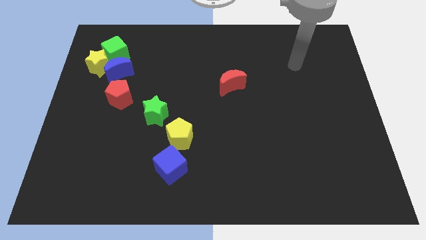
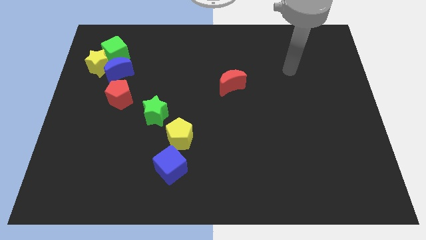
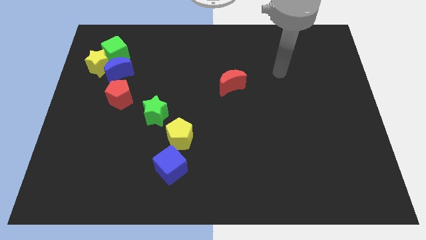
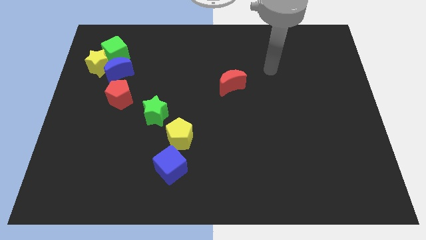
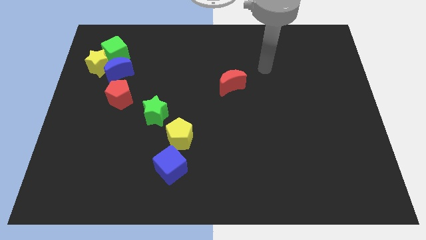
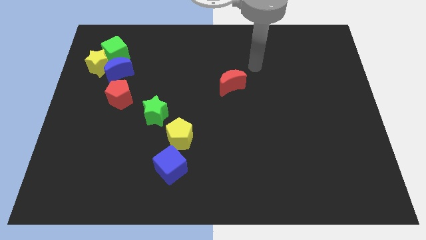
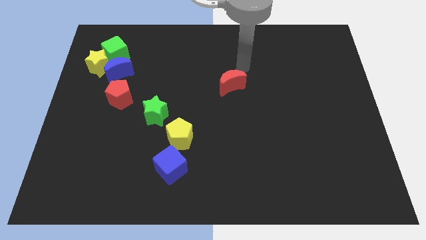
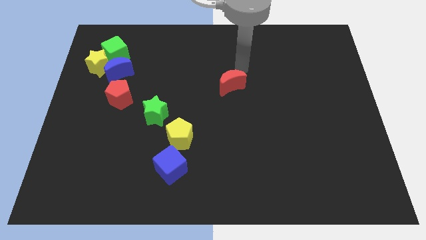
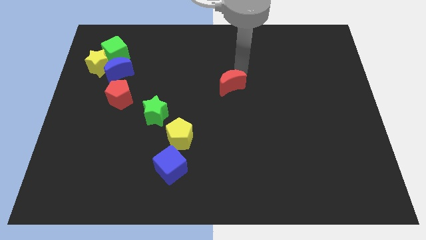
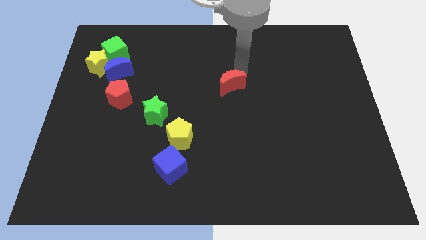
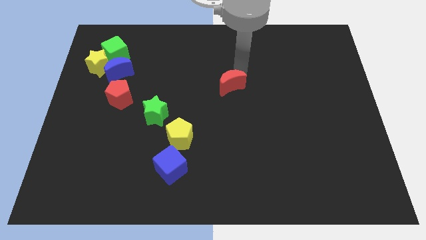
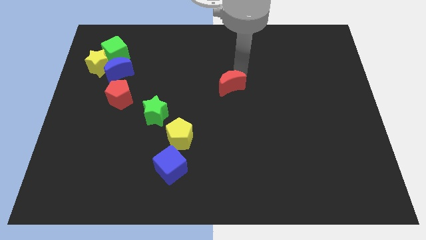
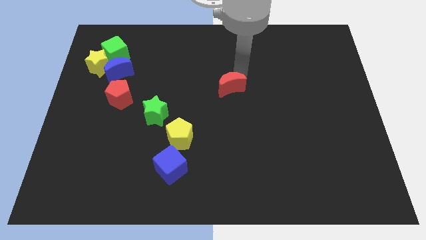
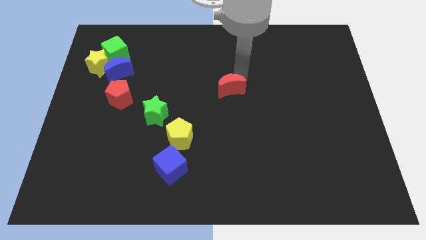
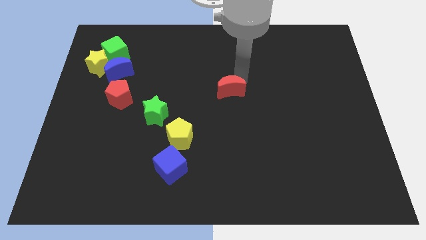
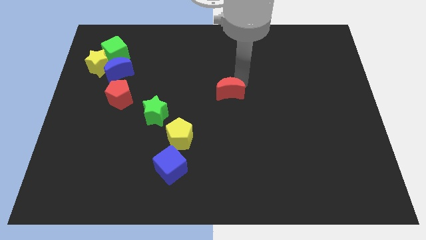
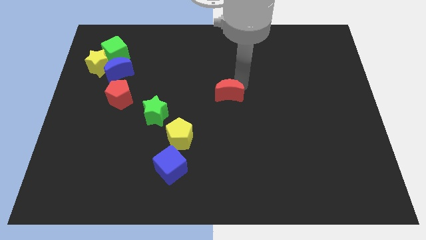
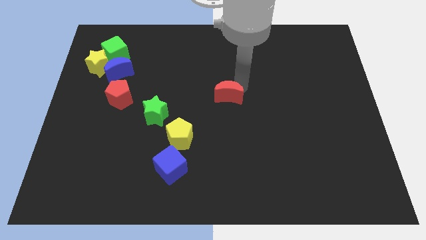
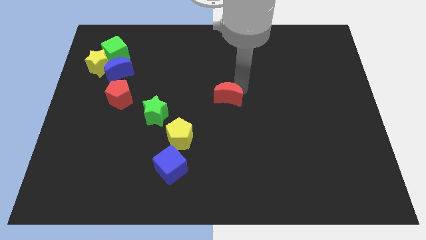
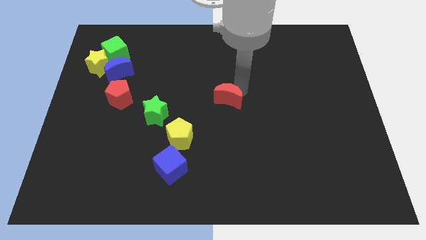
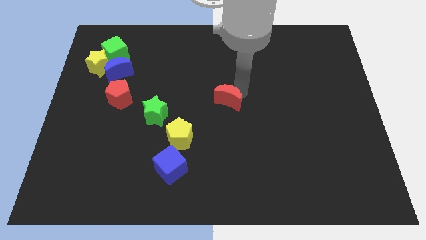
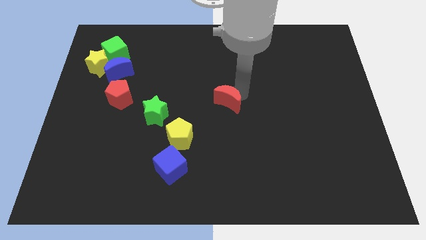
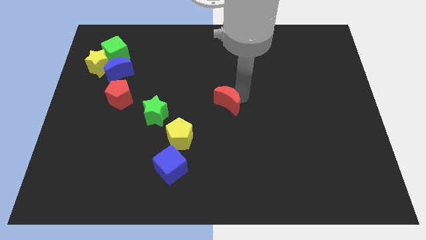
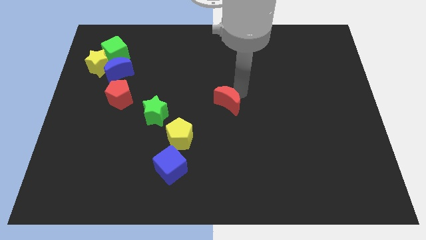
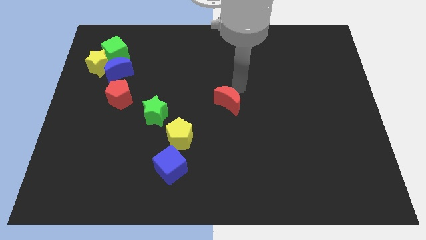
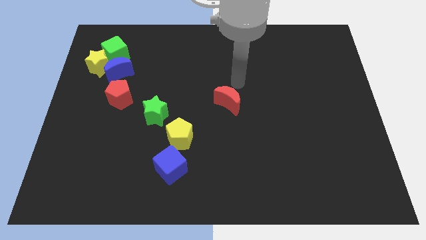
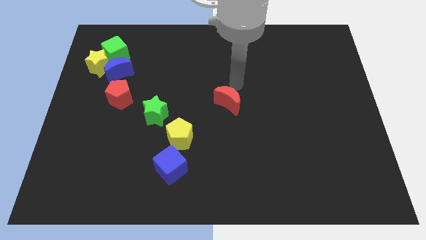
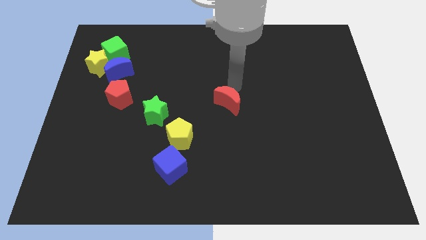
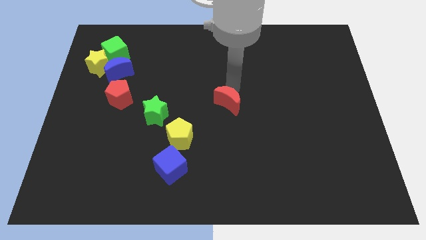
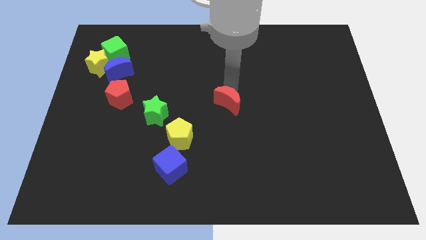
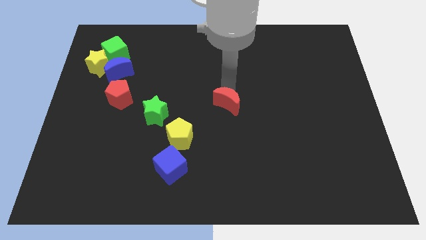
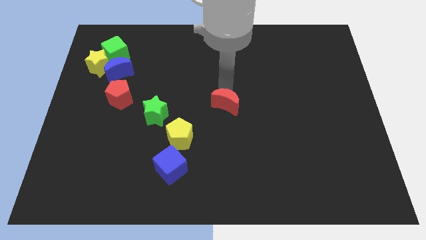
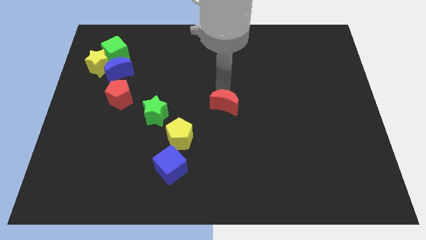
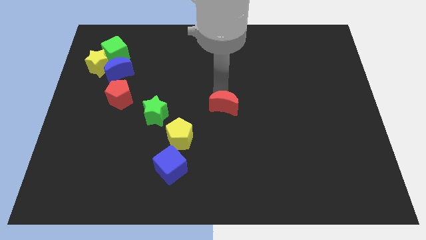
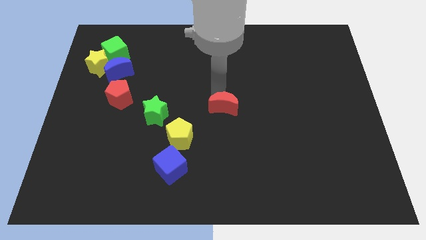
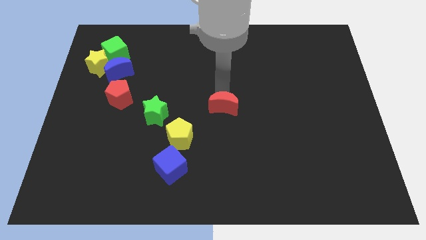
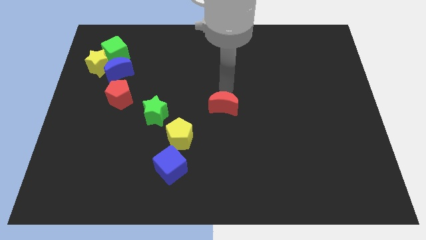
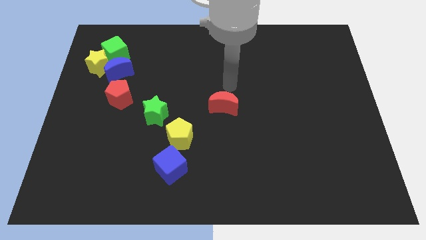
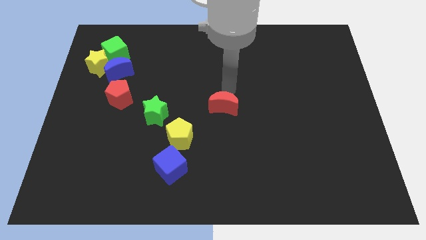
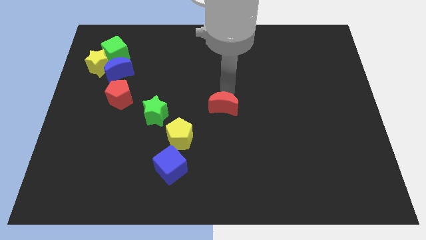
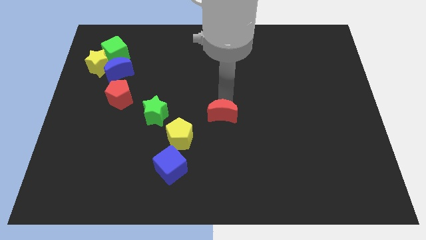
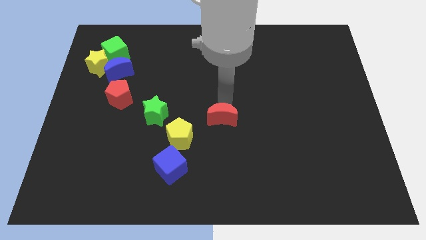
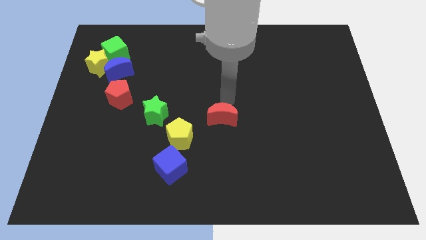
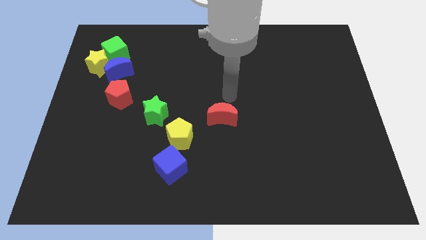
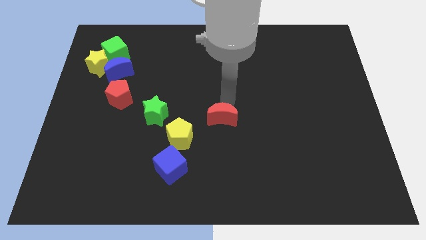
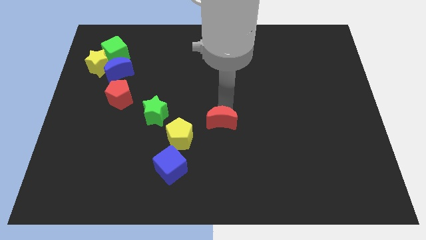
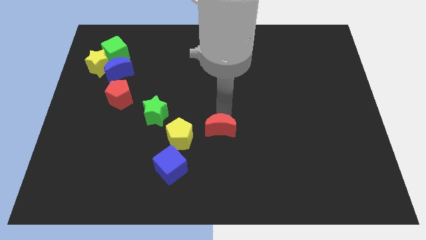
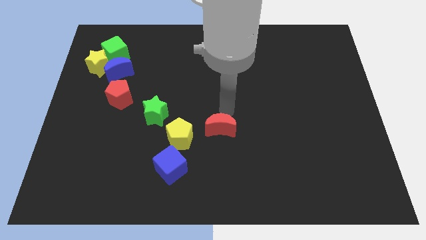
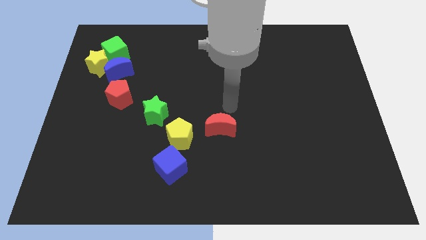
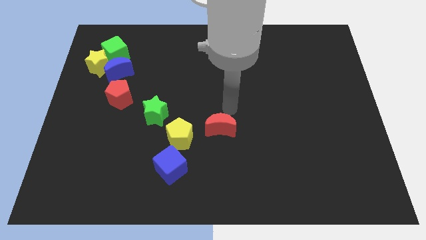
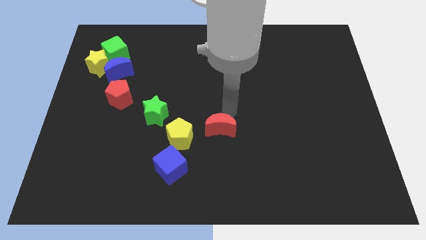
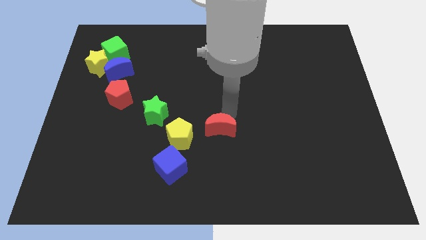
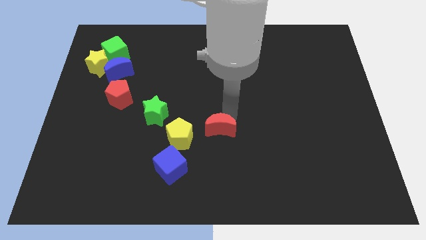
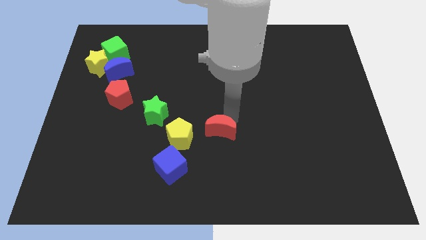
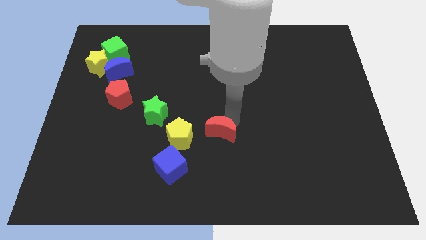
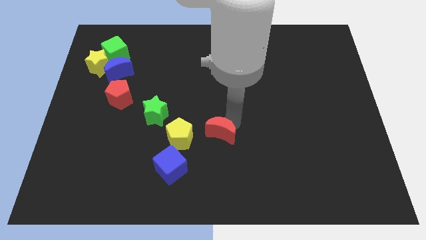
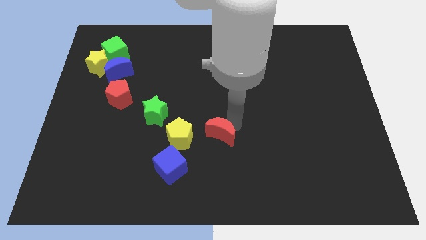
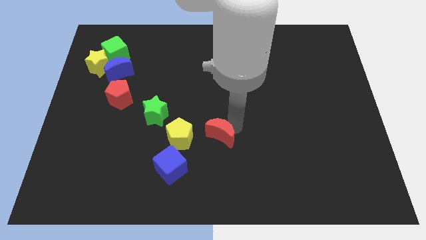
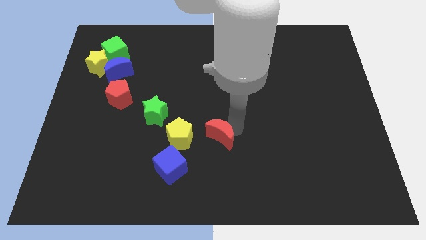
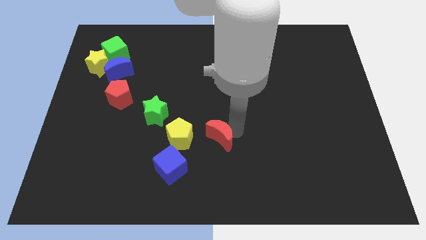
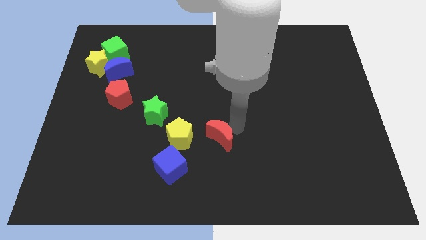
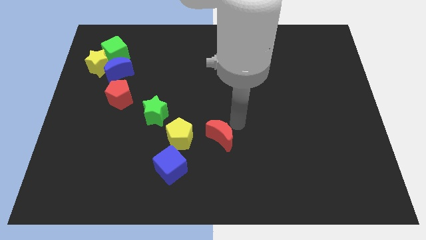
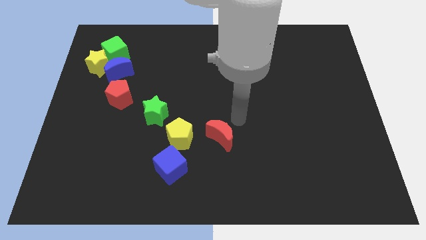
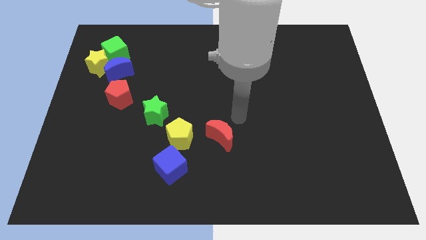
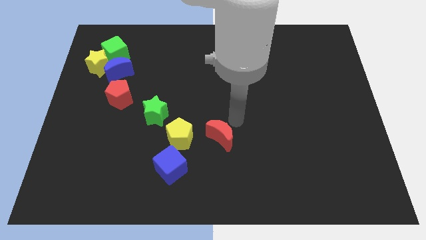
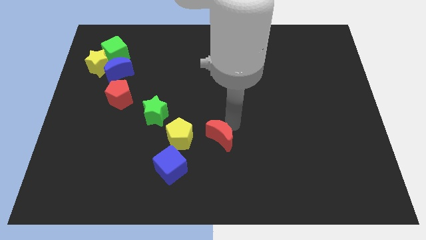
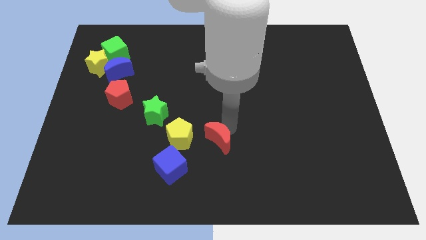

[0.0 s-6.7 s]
move the red moon to the top right of the blue cube
